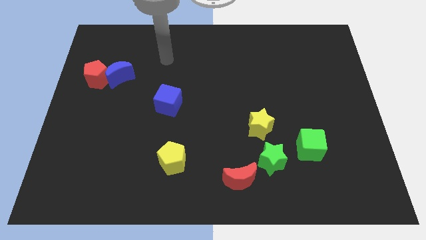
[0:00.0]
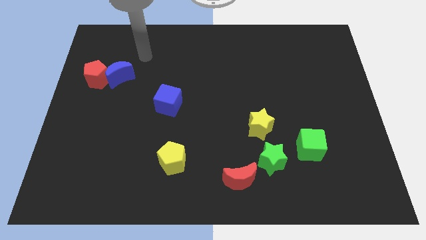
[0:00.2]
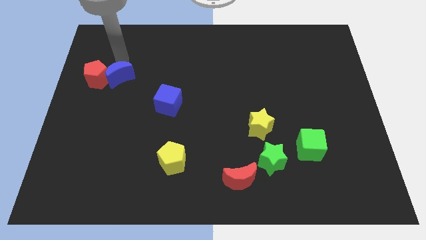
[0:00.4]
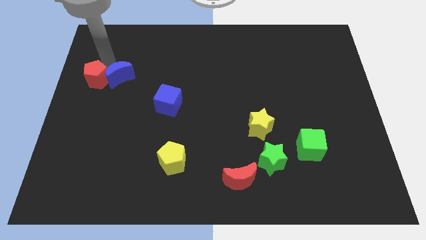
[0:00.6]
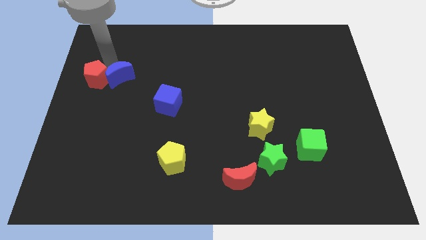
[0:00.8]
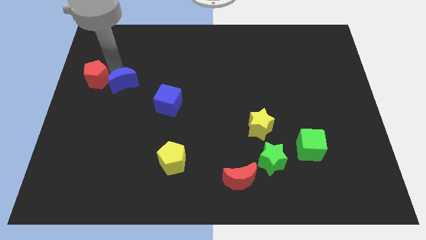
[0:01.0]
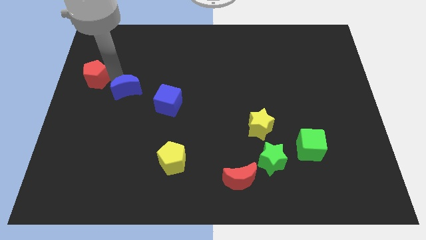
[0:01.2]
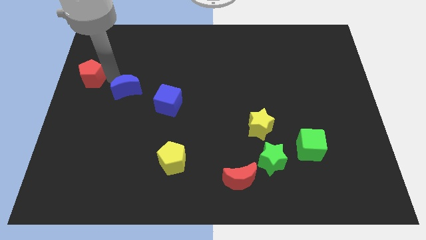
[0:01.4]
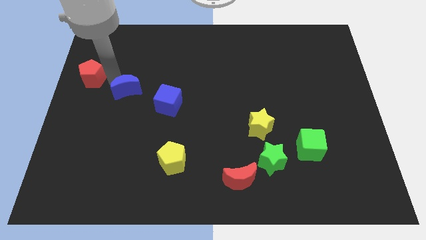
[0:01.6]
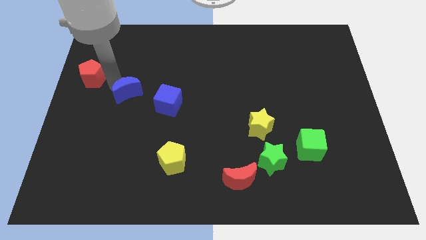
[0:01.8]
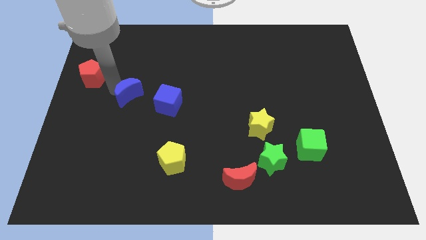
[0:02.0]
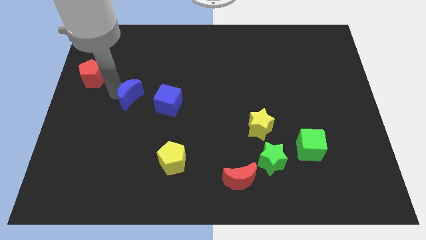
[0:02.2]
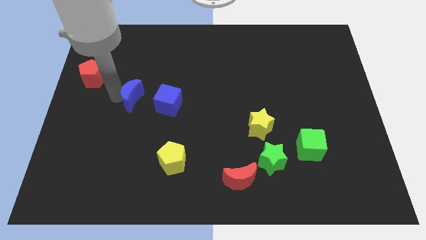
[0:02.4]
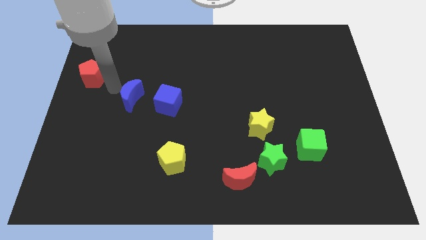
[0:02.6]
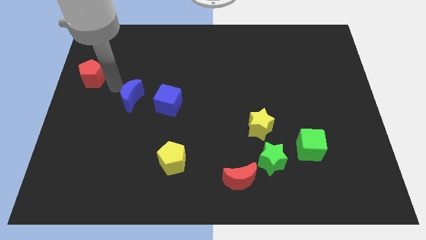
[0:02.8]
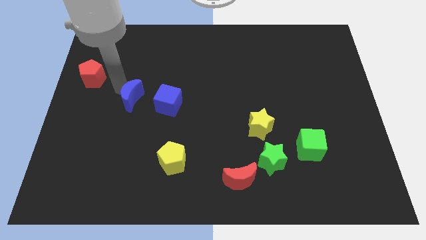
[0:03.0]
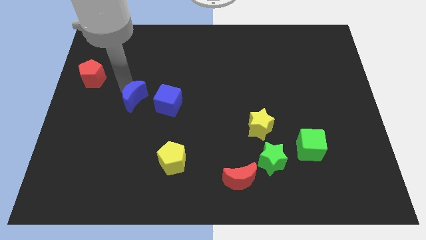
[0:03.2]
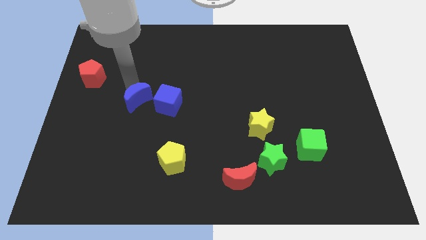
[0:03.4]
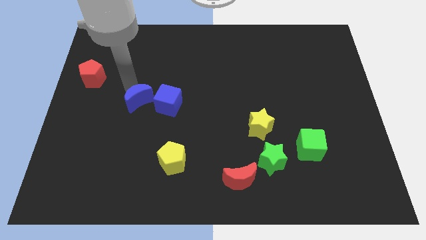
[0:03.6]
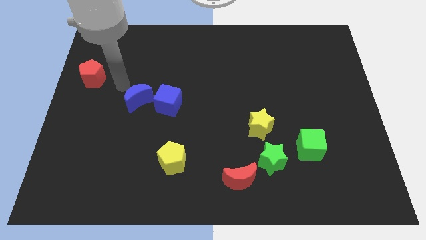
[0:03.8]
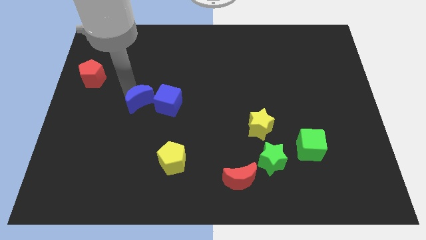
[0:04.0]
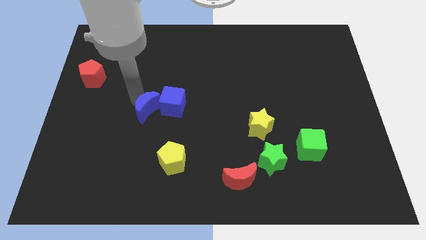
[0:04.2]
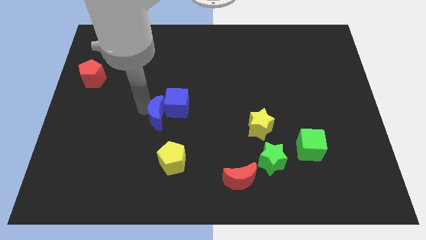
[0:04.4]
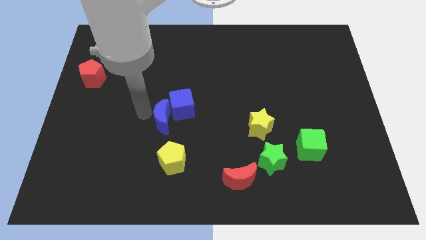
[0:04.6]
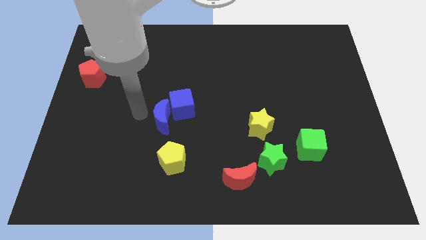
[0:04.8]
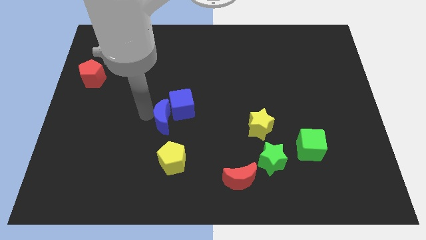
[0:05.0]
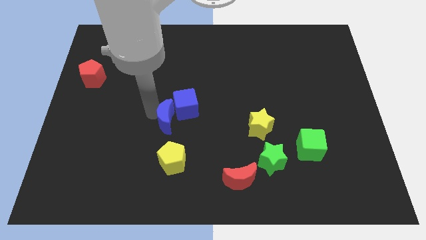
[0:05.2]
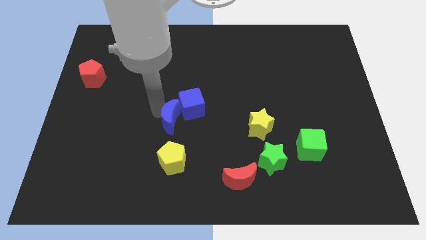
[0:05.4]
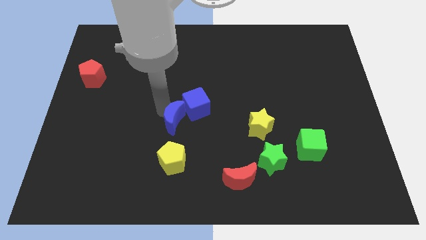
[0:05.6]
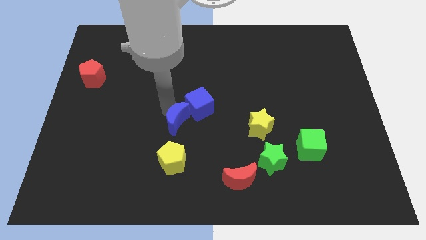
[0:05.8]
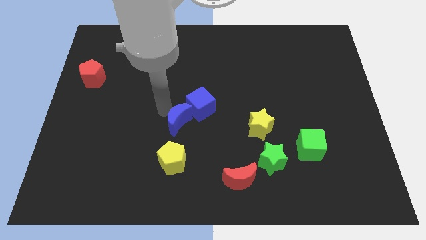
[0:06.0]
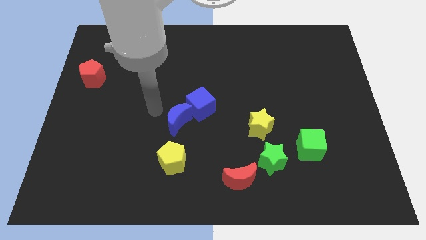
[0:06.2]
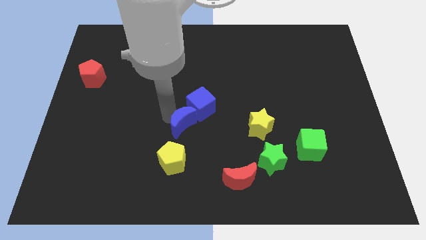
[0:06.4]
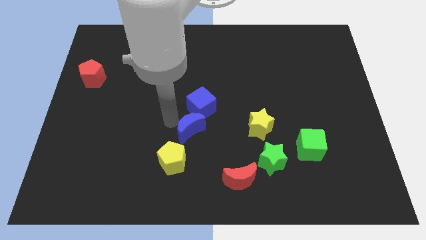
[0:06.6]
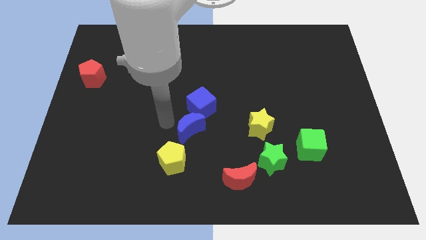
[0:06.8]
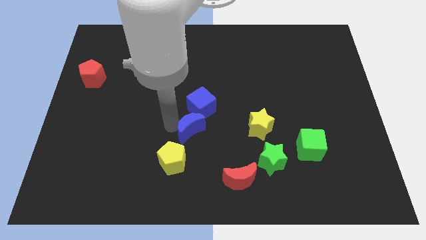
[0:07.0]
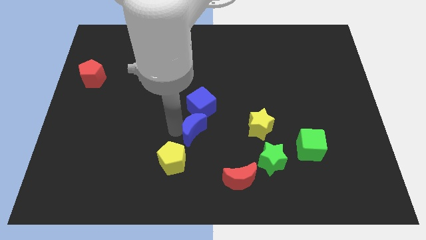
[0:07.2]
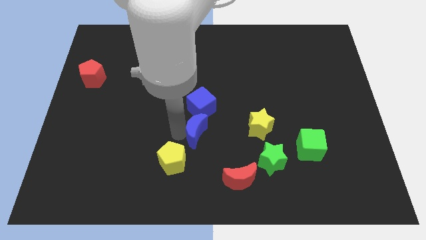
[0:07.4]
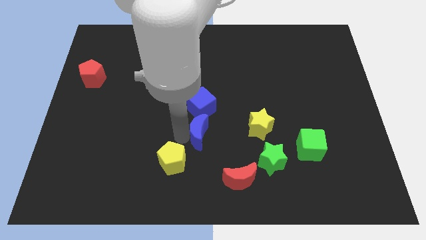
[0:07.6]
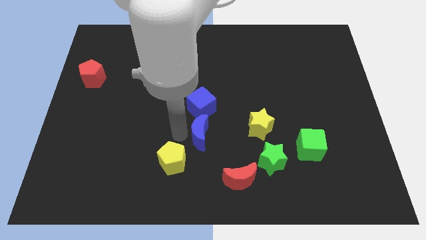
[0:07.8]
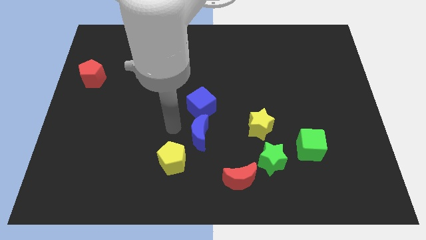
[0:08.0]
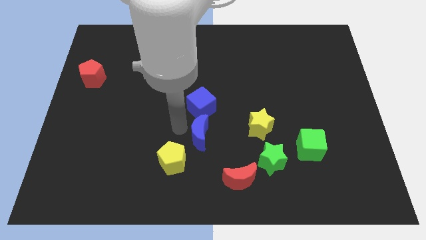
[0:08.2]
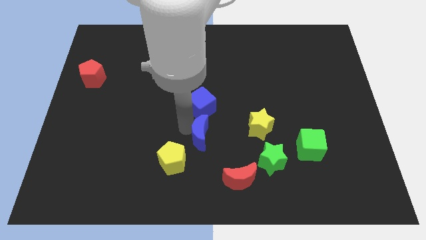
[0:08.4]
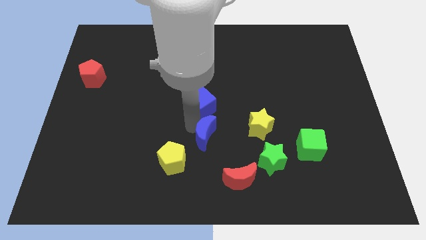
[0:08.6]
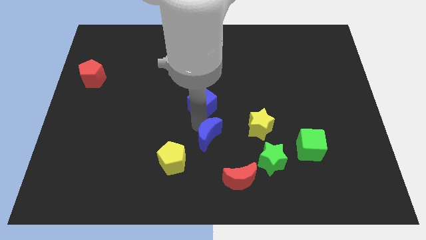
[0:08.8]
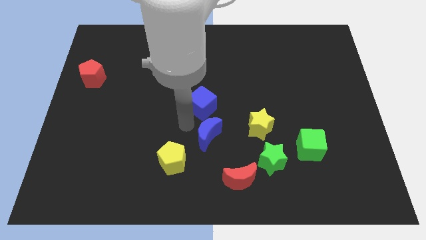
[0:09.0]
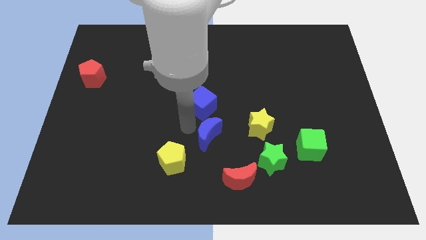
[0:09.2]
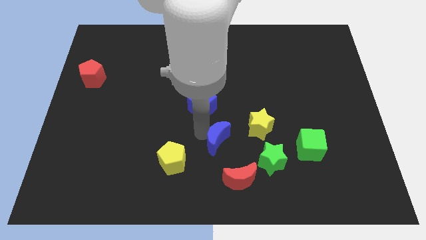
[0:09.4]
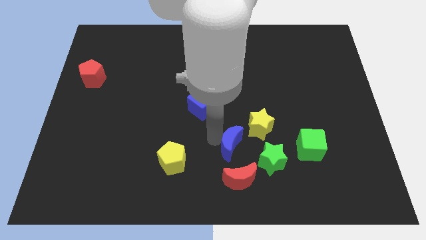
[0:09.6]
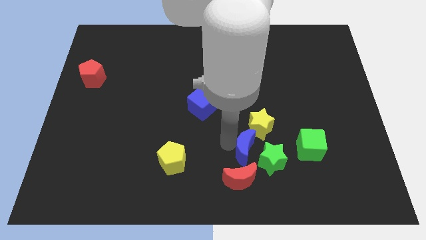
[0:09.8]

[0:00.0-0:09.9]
slide the blue moon close to the green star

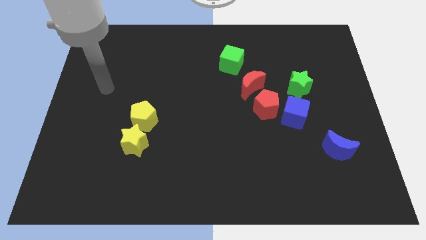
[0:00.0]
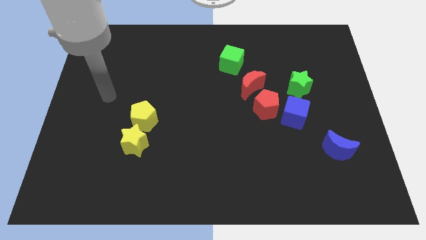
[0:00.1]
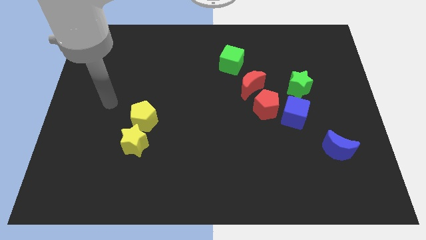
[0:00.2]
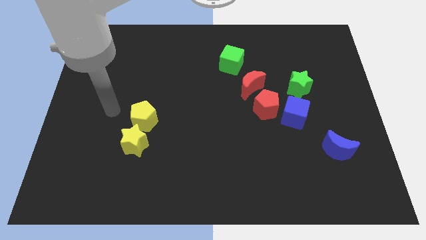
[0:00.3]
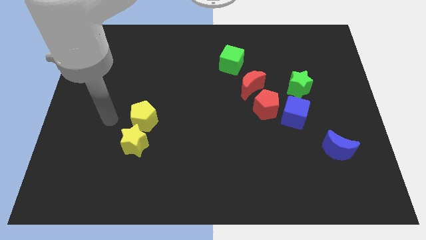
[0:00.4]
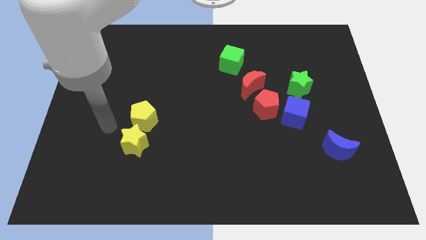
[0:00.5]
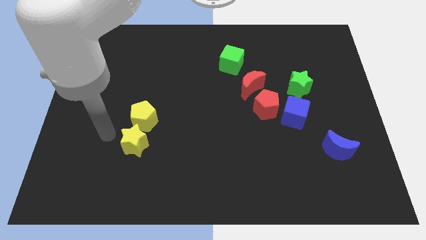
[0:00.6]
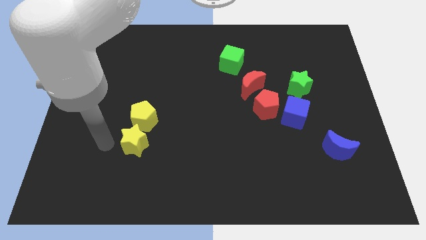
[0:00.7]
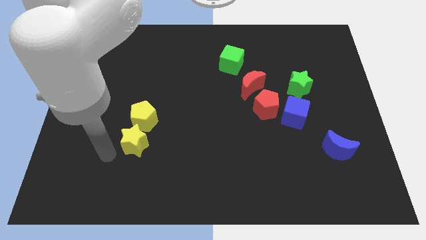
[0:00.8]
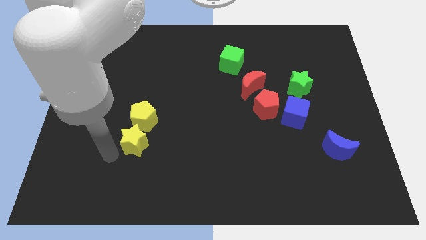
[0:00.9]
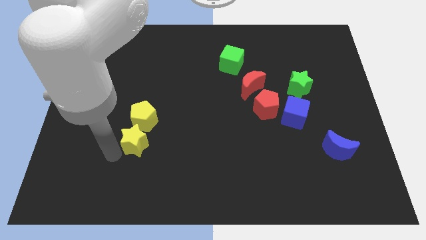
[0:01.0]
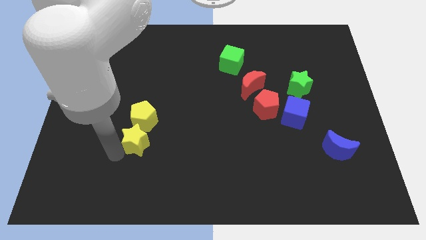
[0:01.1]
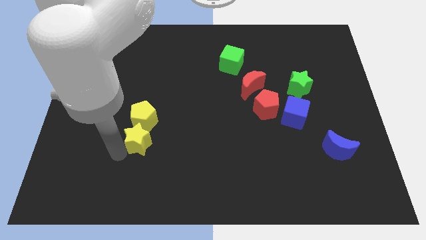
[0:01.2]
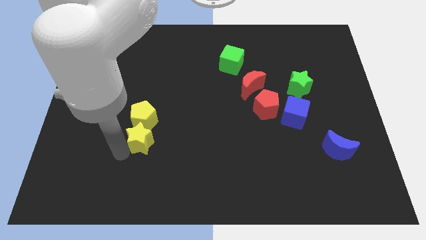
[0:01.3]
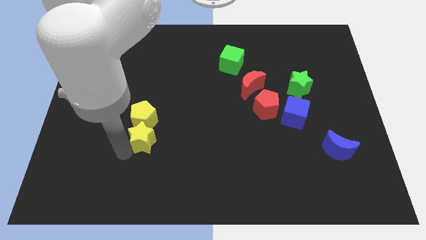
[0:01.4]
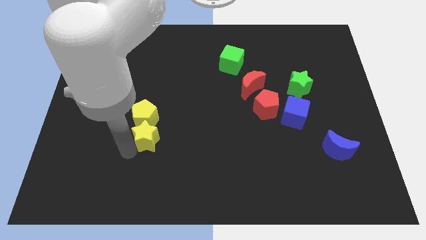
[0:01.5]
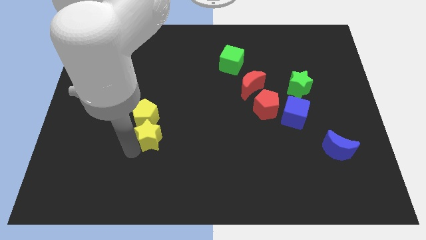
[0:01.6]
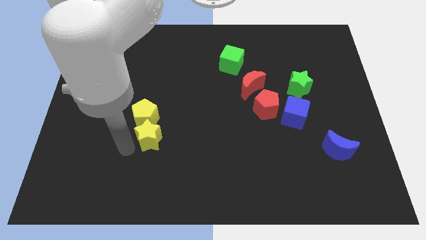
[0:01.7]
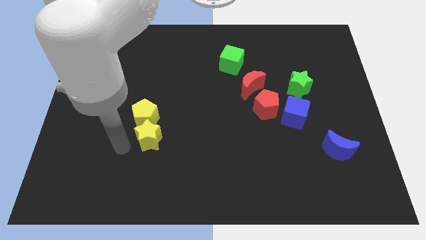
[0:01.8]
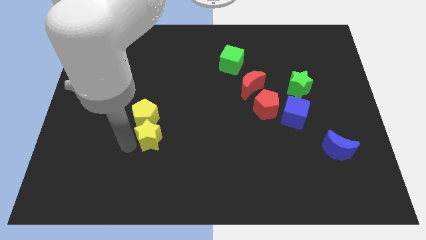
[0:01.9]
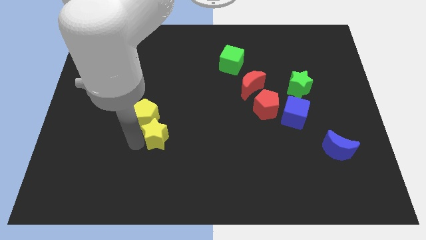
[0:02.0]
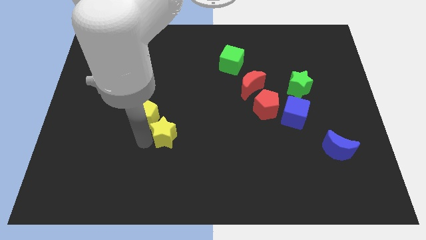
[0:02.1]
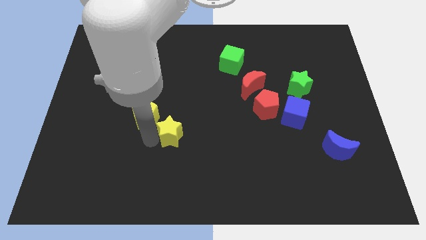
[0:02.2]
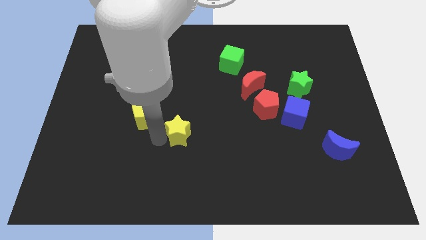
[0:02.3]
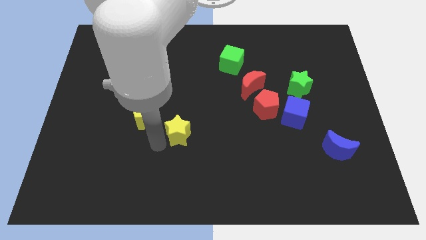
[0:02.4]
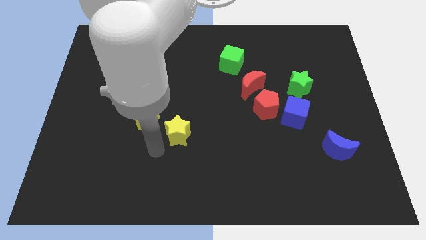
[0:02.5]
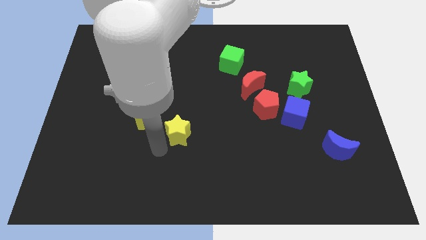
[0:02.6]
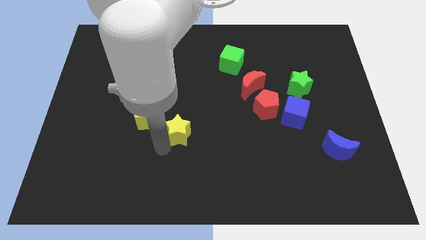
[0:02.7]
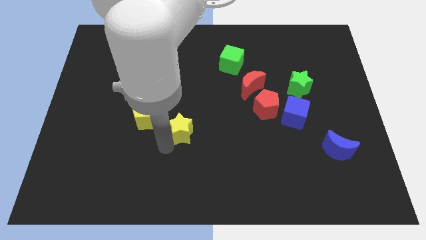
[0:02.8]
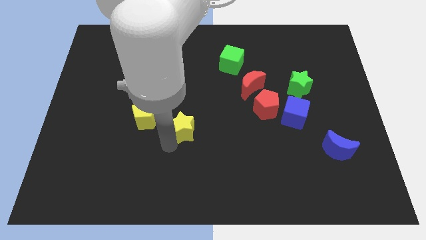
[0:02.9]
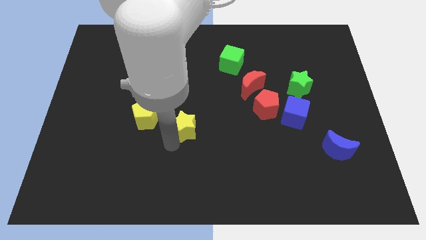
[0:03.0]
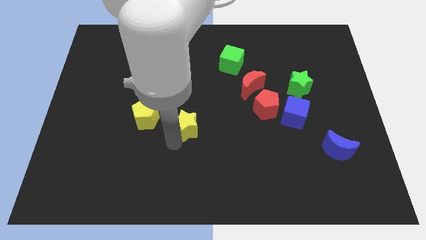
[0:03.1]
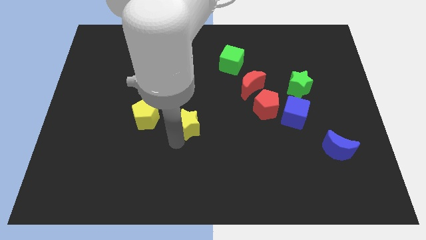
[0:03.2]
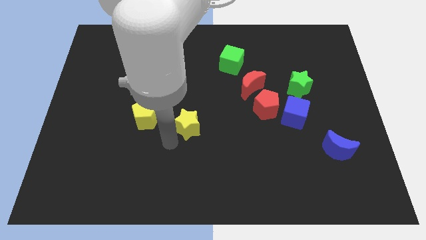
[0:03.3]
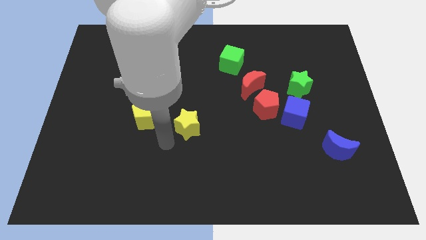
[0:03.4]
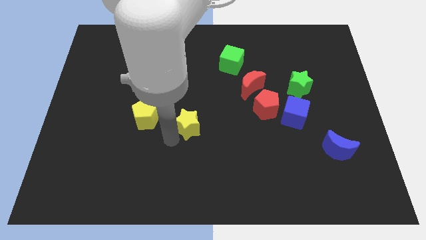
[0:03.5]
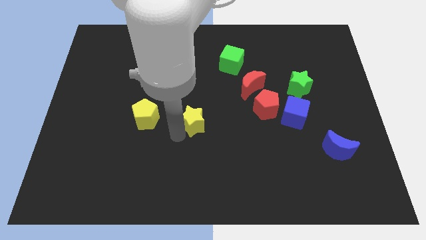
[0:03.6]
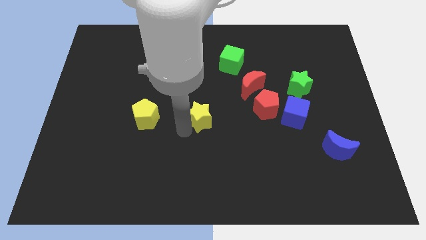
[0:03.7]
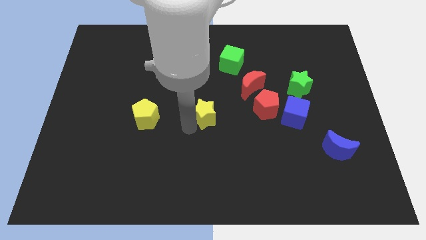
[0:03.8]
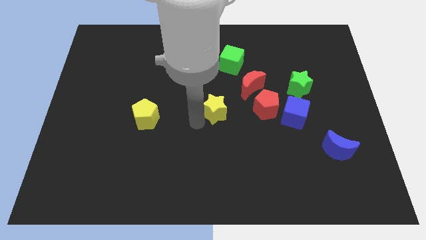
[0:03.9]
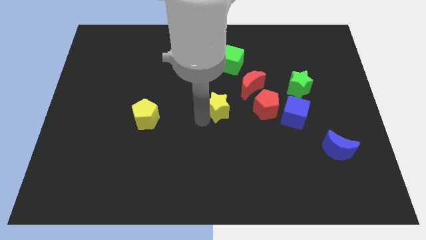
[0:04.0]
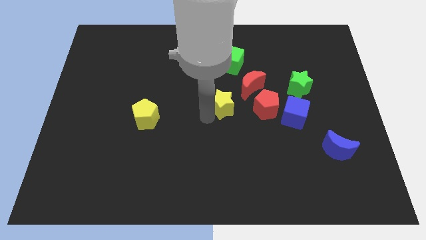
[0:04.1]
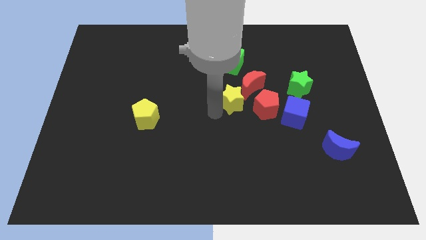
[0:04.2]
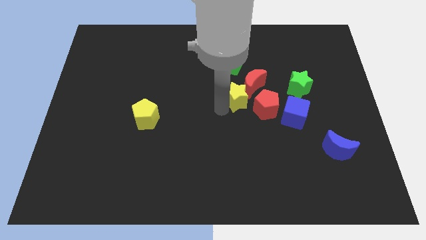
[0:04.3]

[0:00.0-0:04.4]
push the yellow star next to the red moon
